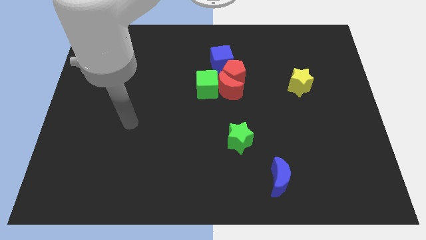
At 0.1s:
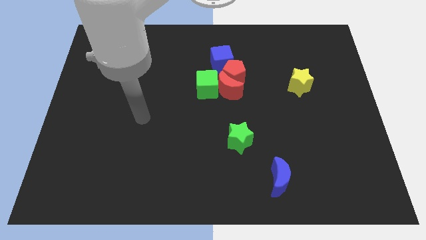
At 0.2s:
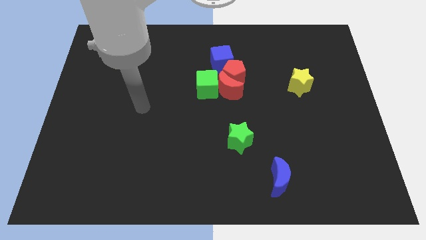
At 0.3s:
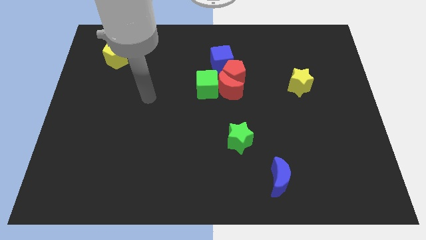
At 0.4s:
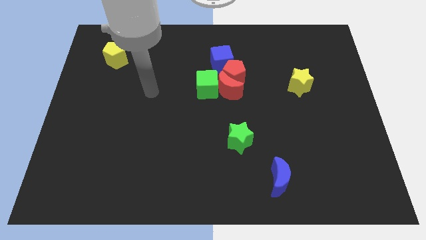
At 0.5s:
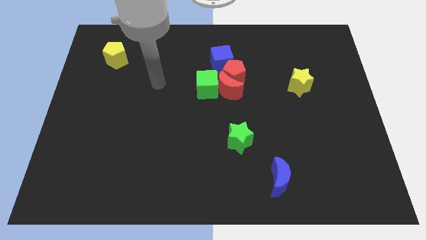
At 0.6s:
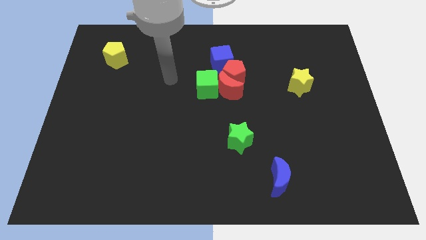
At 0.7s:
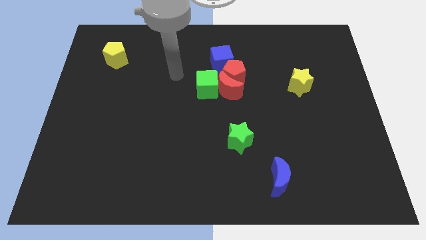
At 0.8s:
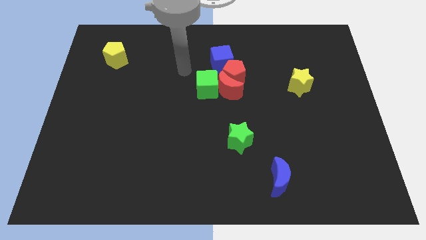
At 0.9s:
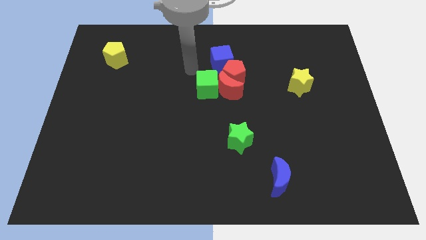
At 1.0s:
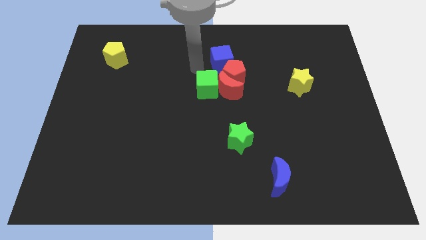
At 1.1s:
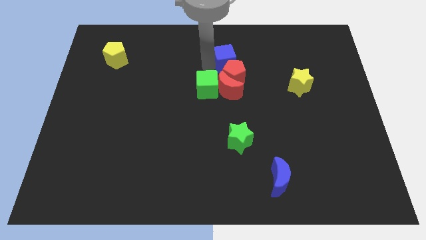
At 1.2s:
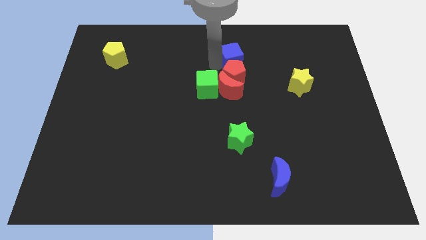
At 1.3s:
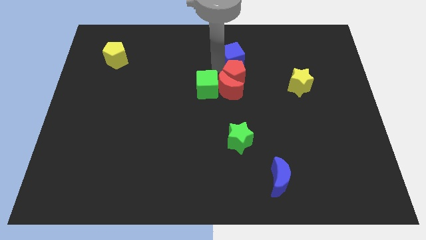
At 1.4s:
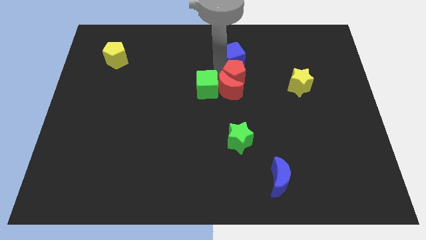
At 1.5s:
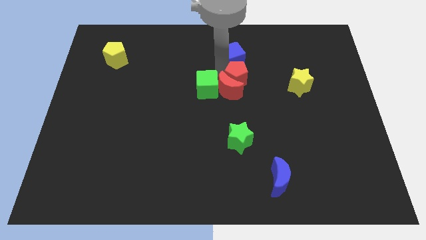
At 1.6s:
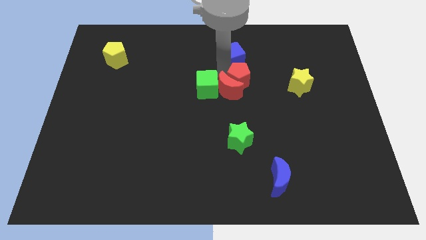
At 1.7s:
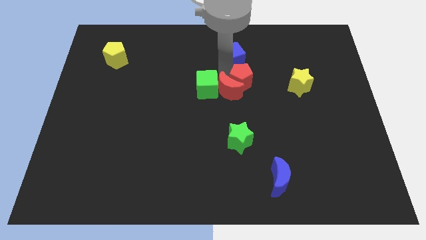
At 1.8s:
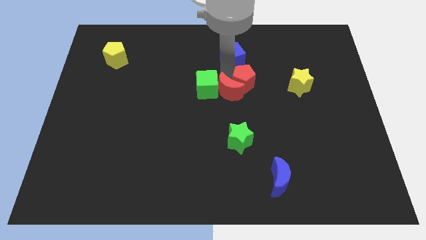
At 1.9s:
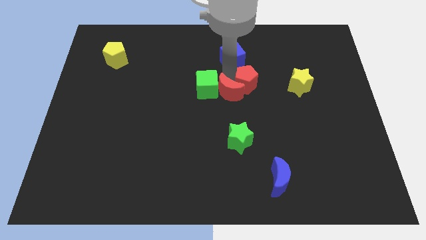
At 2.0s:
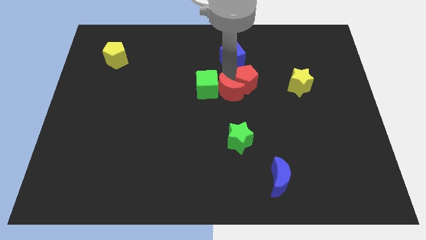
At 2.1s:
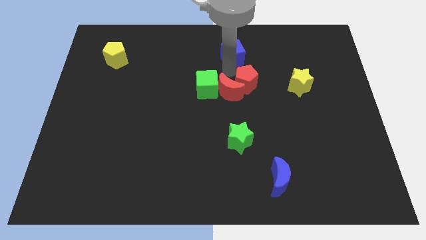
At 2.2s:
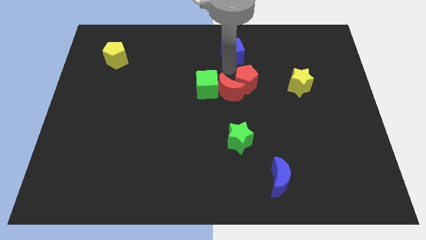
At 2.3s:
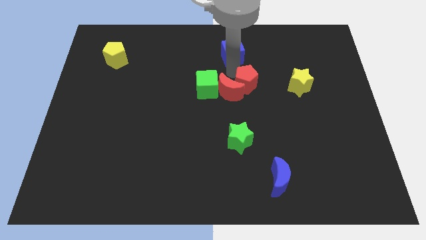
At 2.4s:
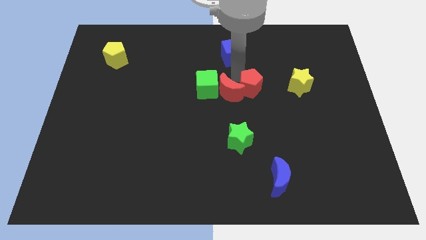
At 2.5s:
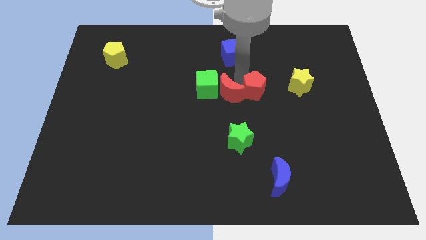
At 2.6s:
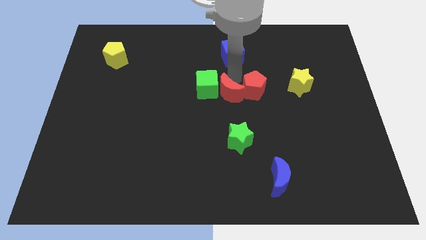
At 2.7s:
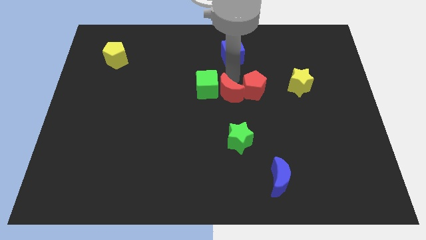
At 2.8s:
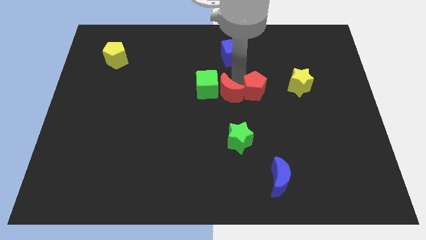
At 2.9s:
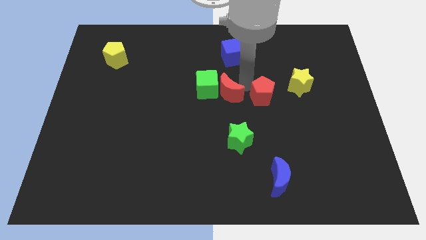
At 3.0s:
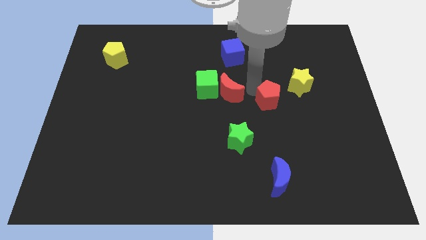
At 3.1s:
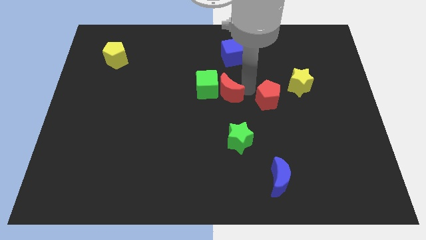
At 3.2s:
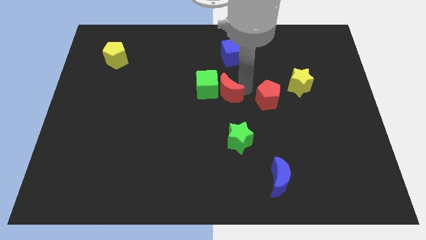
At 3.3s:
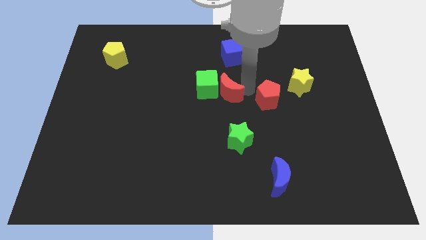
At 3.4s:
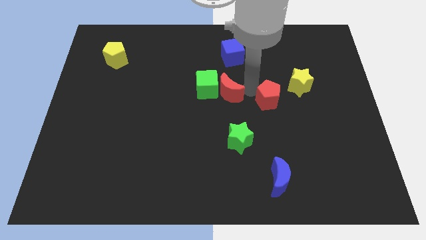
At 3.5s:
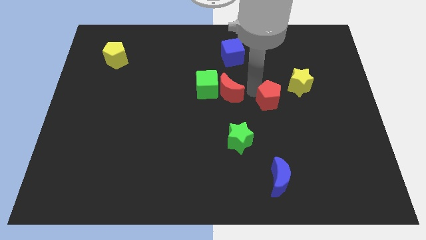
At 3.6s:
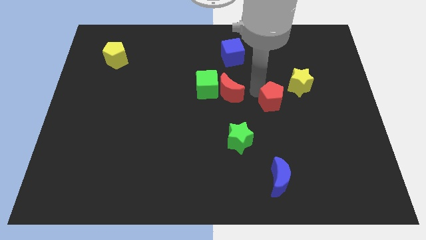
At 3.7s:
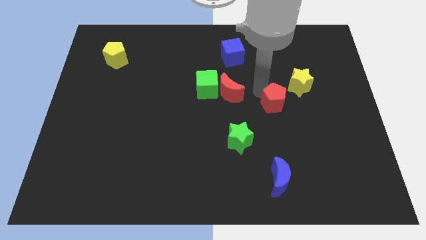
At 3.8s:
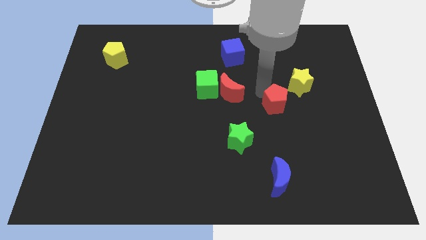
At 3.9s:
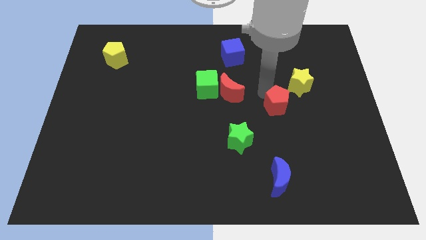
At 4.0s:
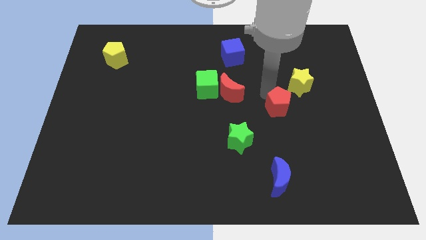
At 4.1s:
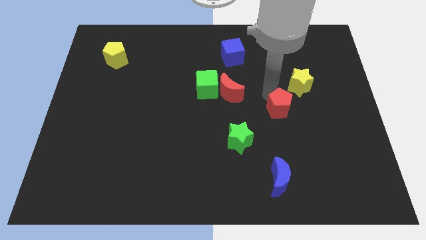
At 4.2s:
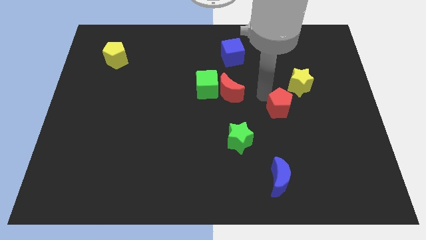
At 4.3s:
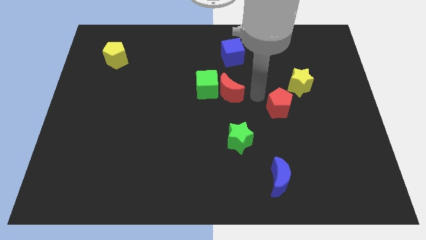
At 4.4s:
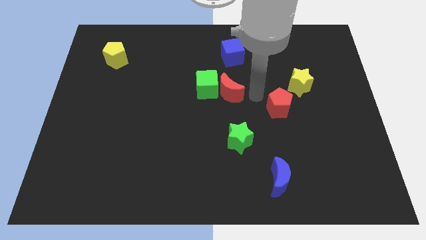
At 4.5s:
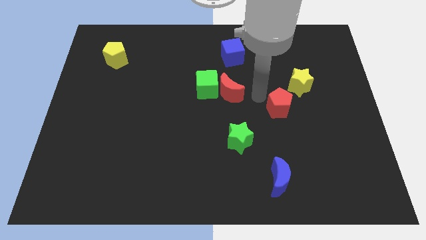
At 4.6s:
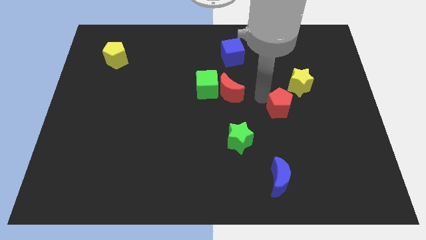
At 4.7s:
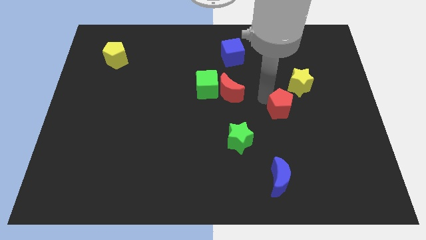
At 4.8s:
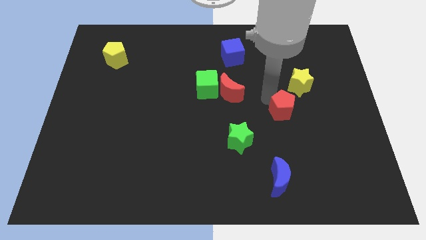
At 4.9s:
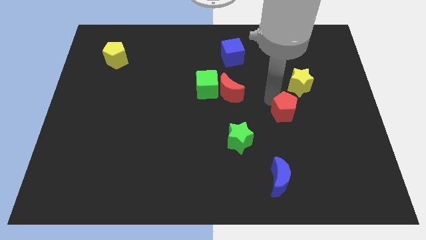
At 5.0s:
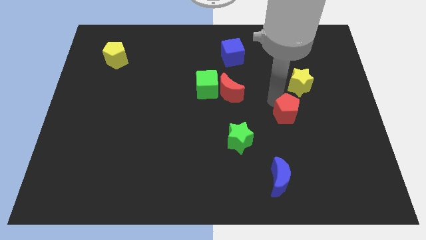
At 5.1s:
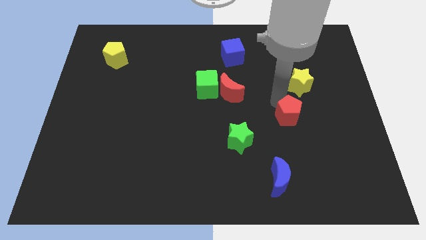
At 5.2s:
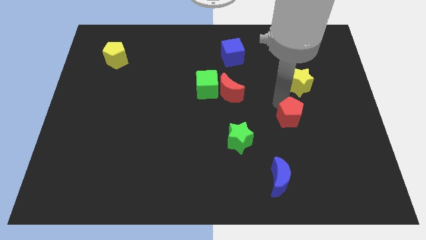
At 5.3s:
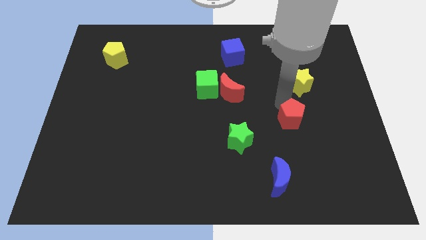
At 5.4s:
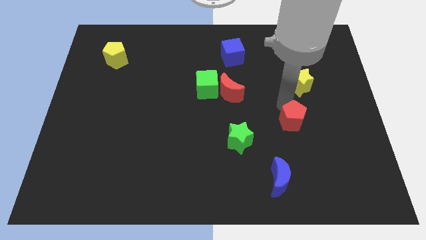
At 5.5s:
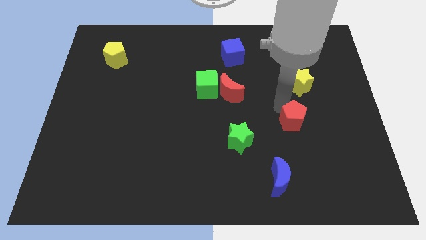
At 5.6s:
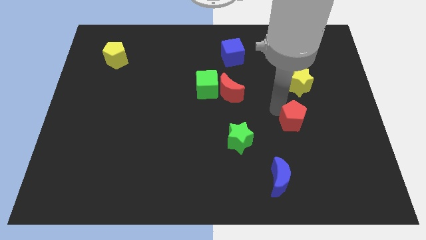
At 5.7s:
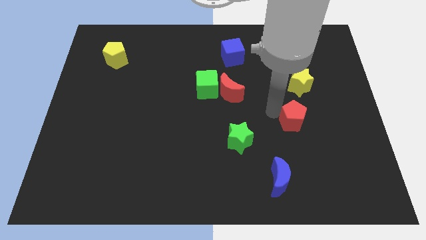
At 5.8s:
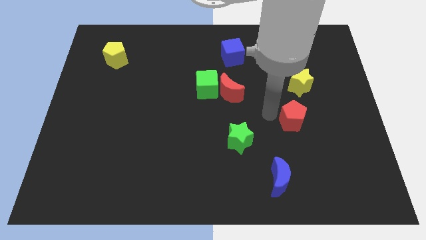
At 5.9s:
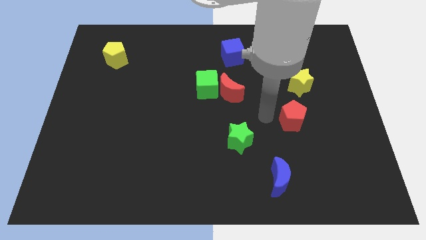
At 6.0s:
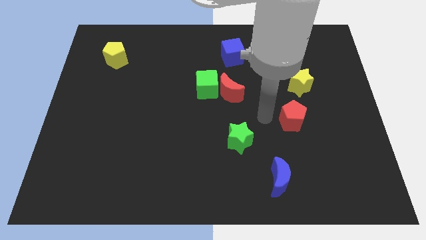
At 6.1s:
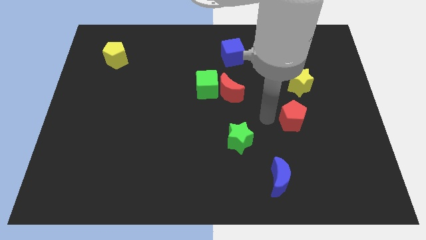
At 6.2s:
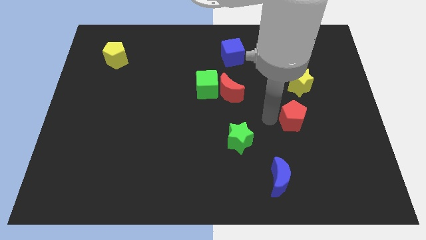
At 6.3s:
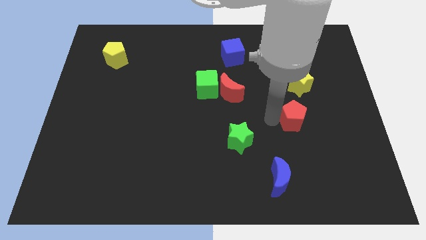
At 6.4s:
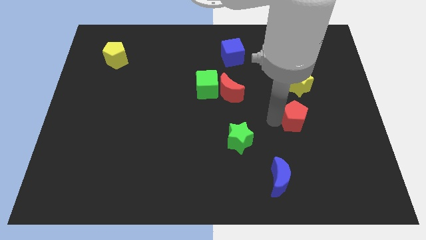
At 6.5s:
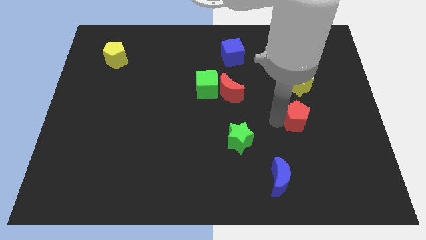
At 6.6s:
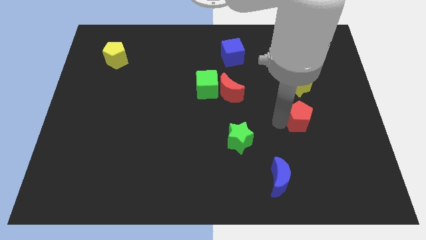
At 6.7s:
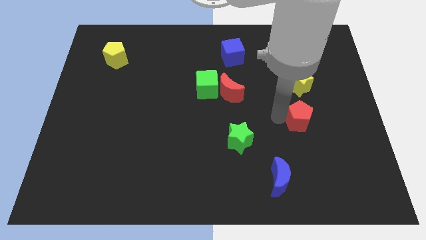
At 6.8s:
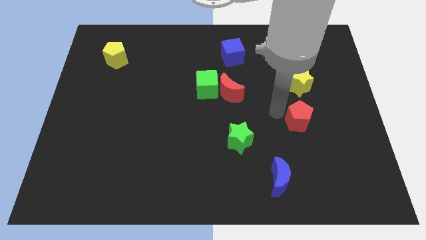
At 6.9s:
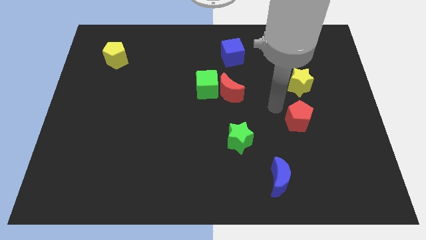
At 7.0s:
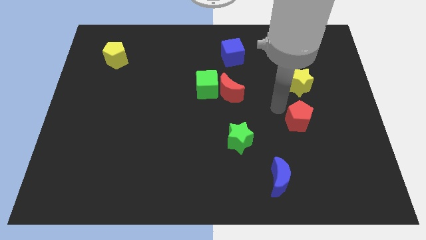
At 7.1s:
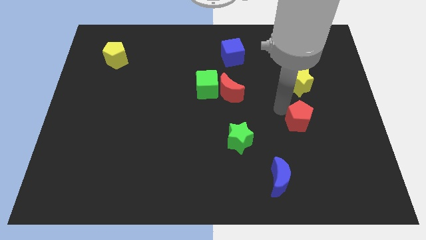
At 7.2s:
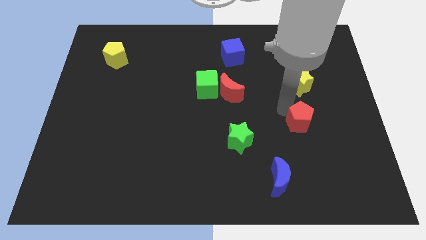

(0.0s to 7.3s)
move the red pentagon down and right

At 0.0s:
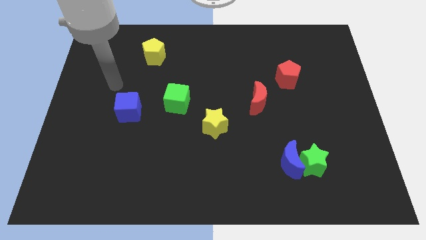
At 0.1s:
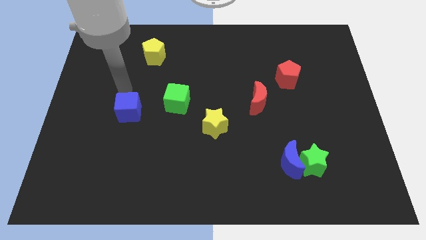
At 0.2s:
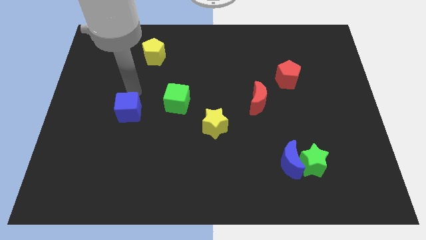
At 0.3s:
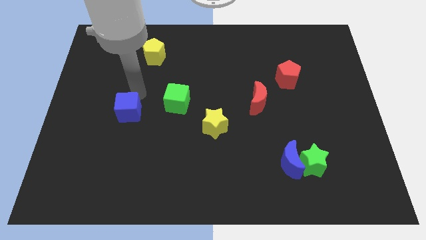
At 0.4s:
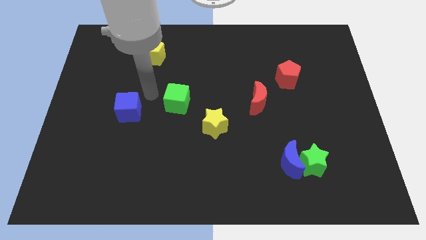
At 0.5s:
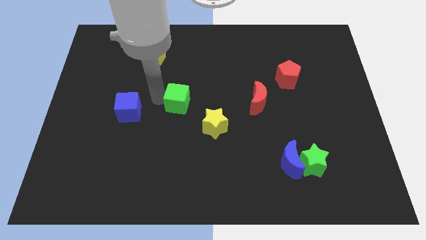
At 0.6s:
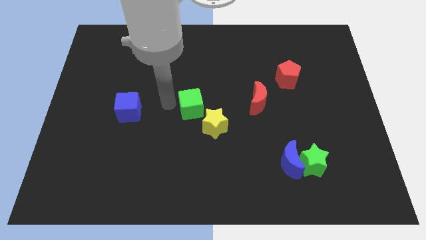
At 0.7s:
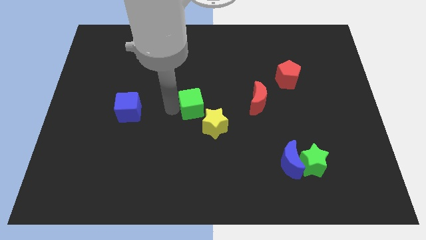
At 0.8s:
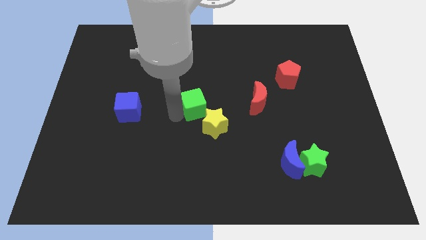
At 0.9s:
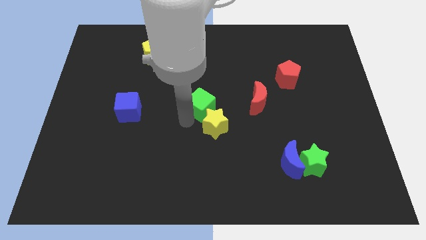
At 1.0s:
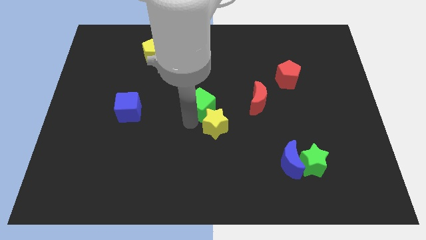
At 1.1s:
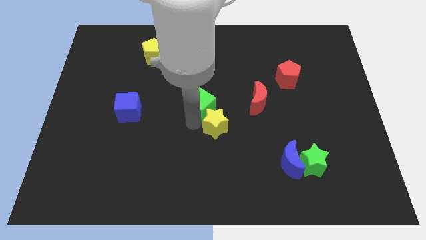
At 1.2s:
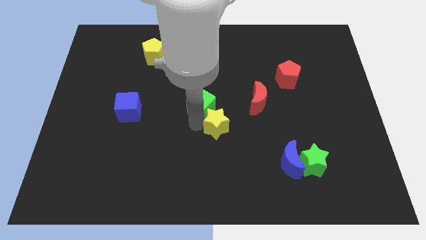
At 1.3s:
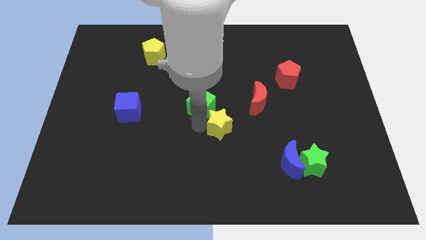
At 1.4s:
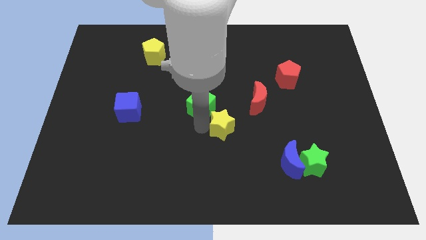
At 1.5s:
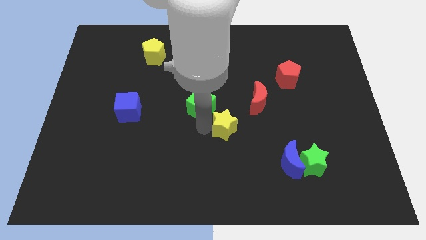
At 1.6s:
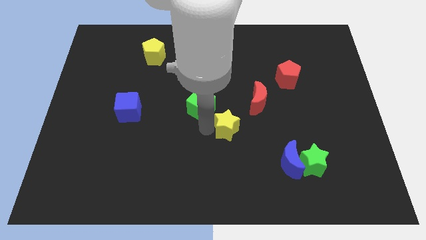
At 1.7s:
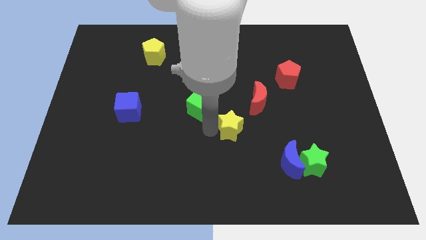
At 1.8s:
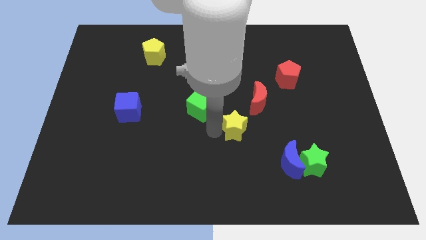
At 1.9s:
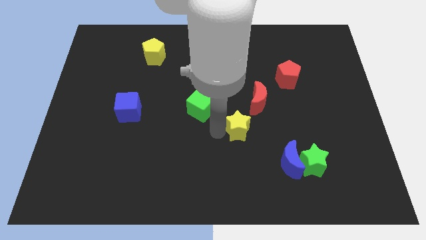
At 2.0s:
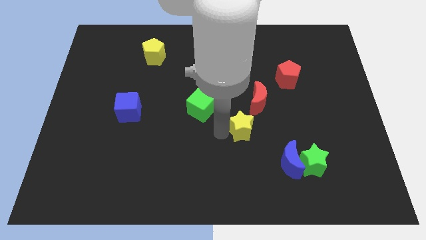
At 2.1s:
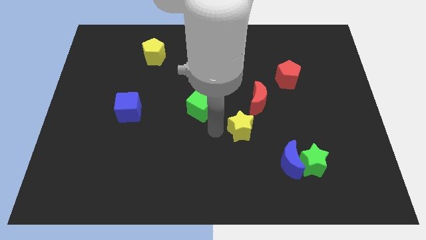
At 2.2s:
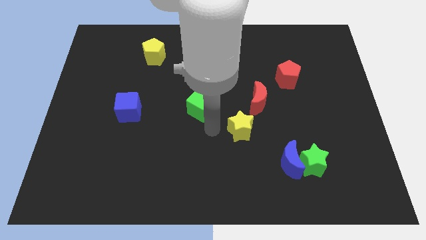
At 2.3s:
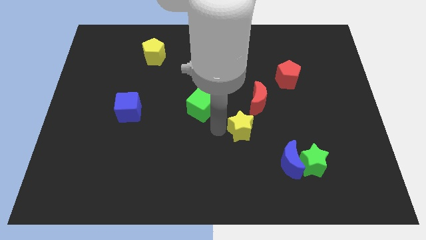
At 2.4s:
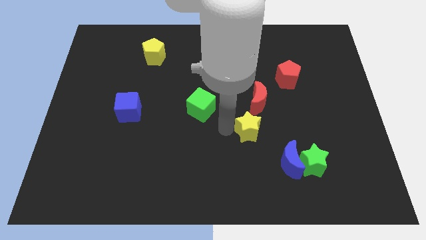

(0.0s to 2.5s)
move the yellow star to the right a little
